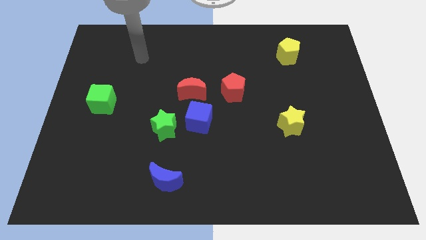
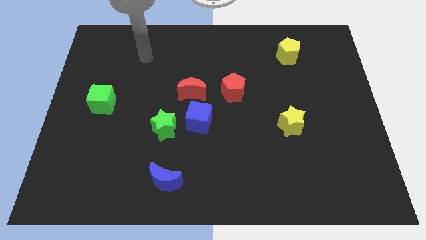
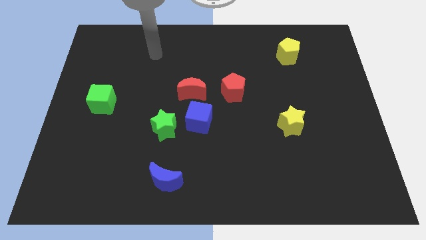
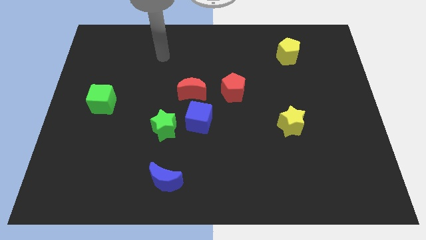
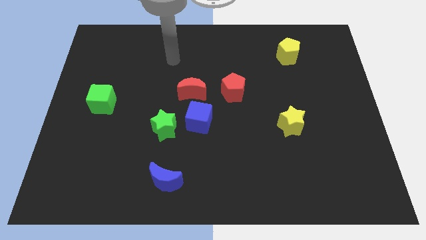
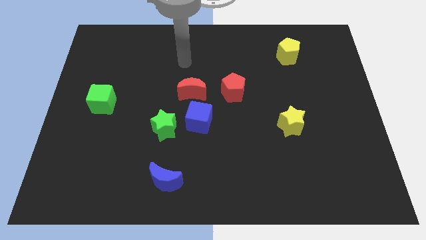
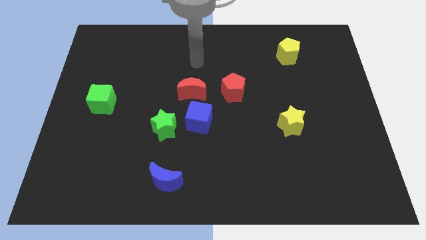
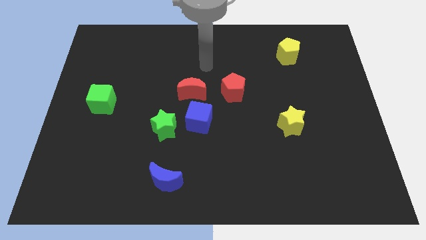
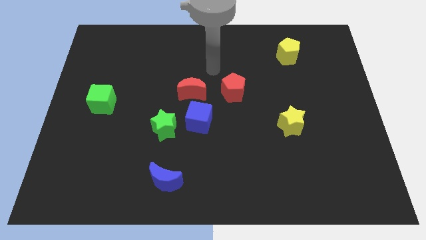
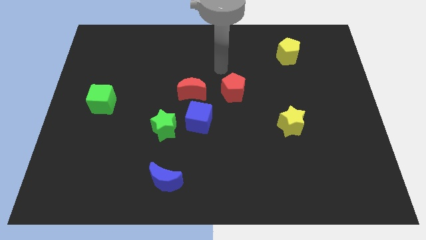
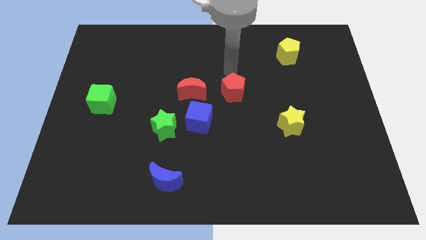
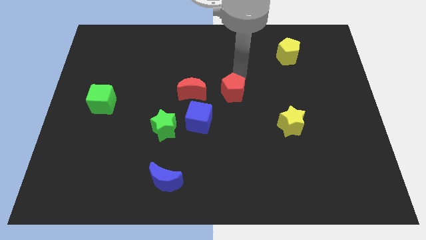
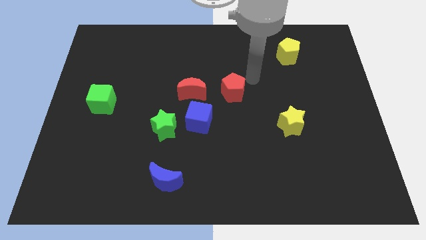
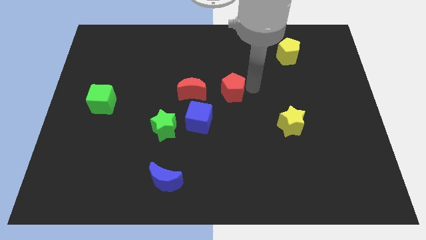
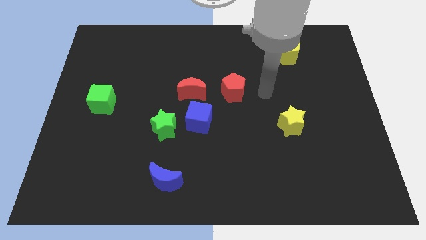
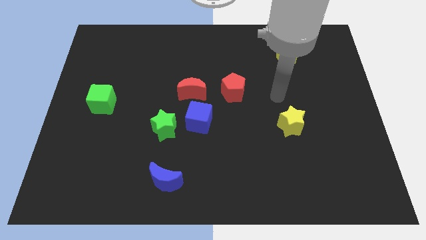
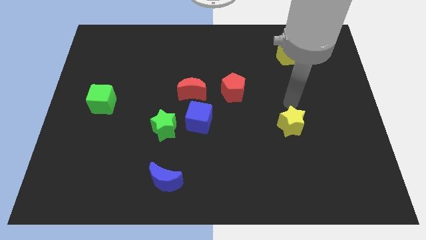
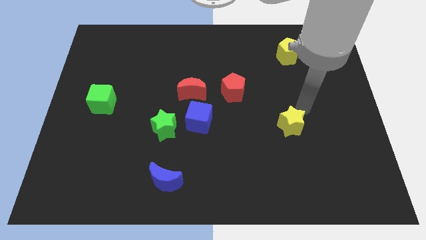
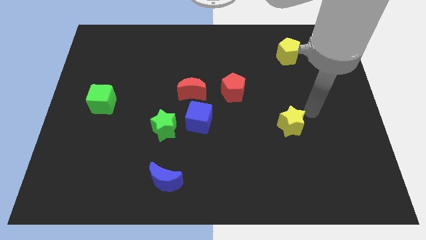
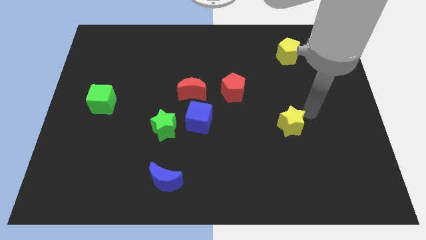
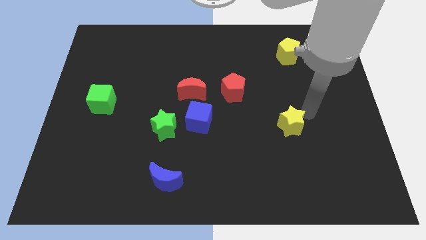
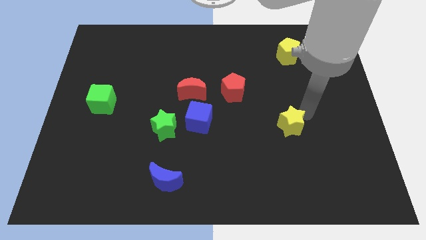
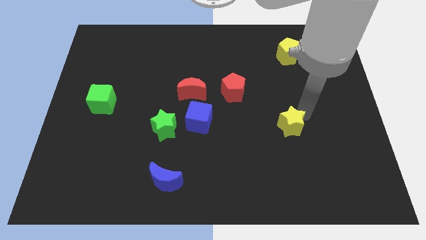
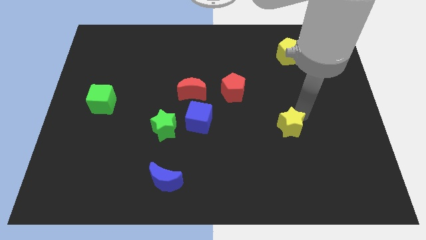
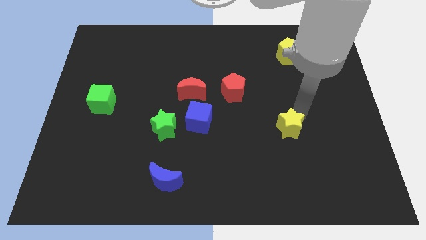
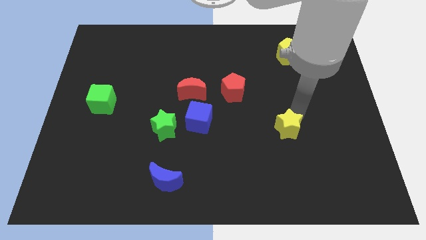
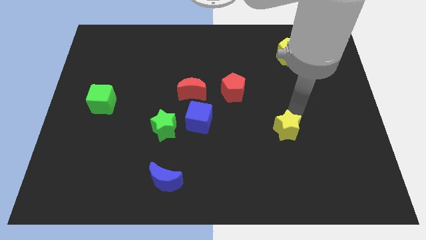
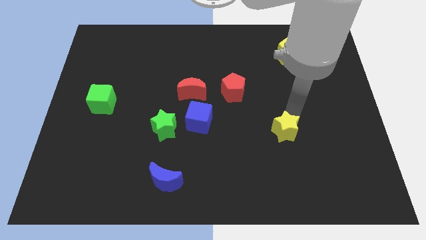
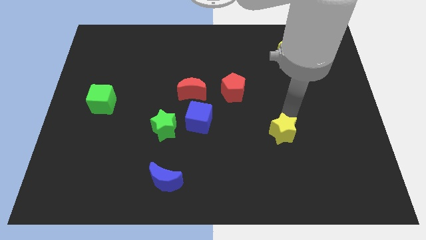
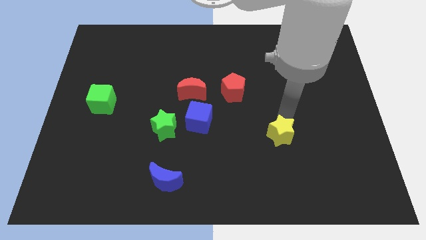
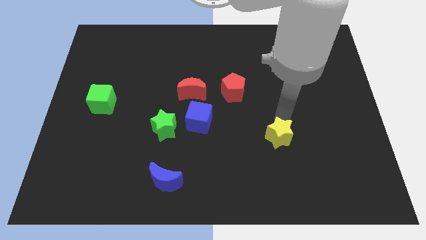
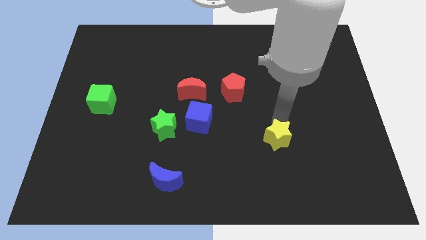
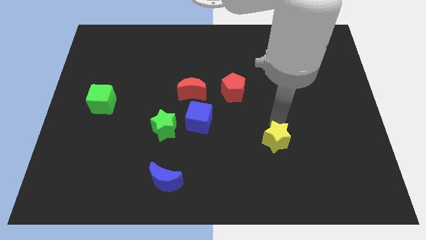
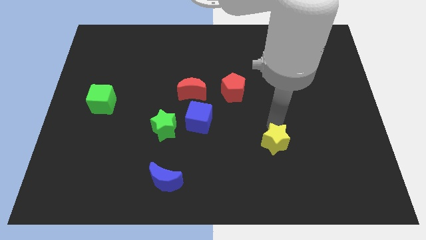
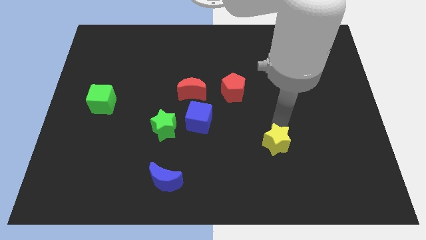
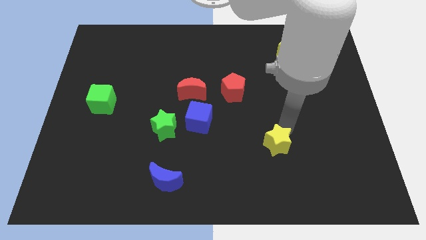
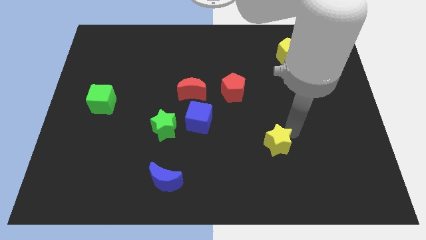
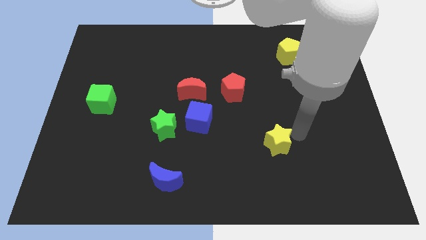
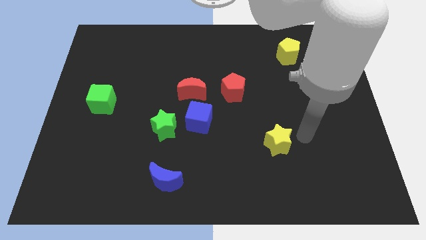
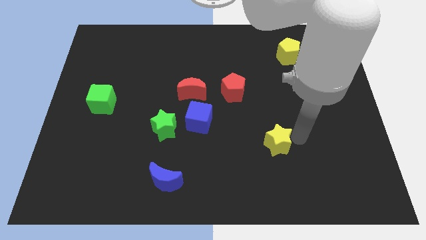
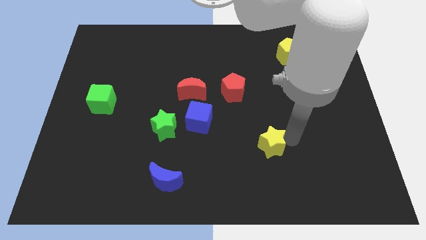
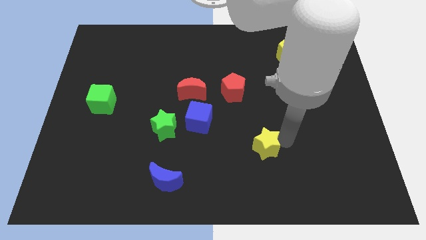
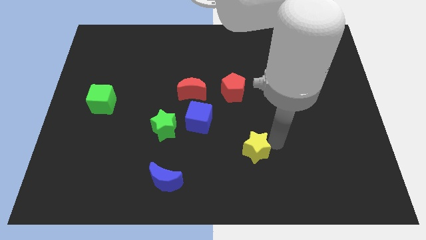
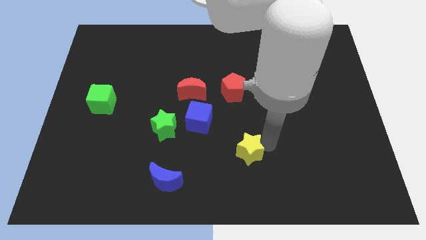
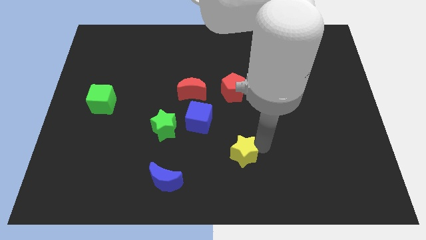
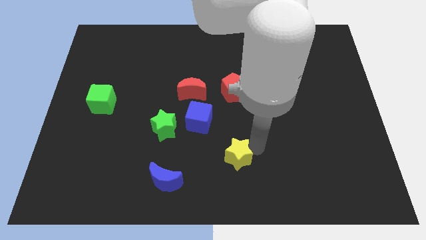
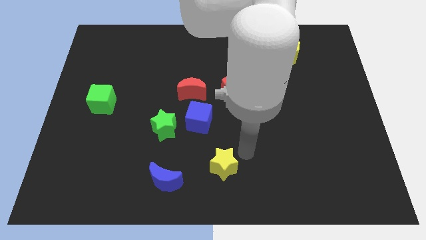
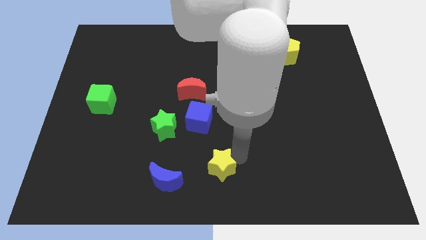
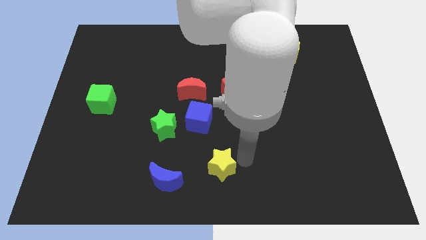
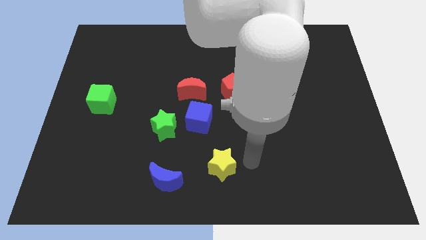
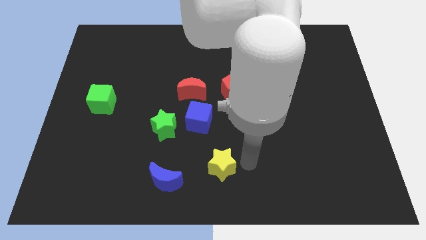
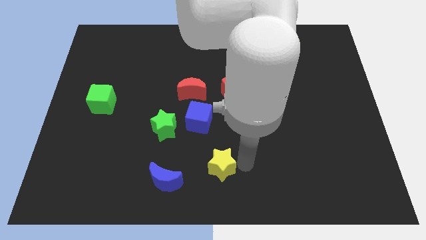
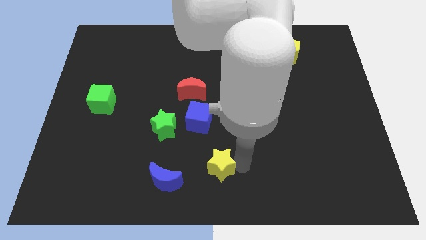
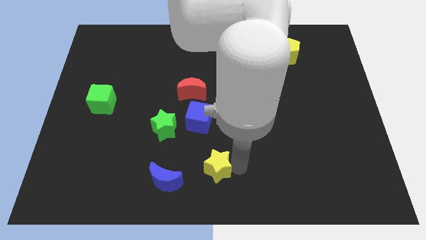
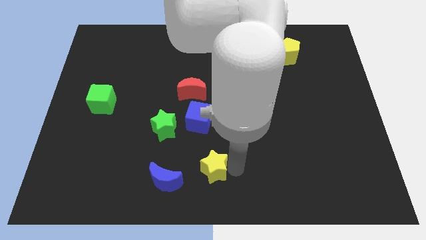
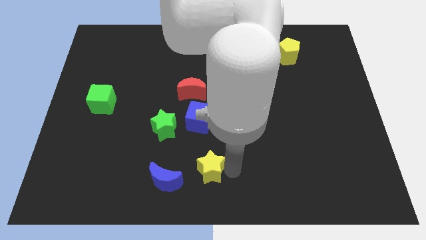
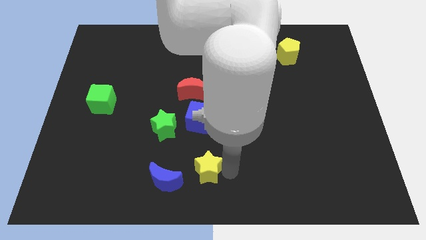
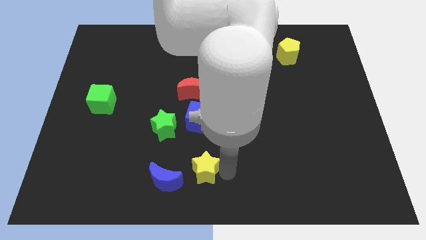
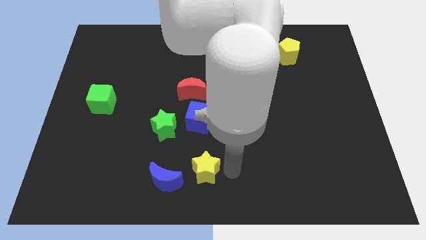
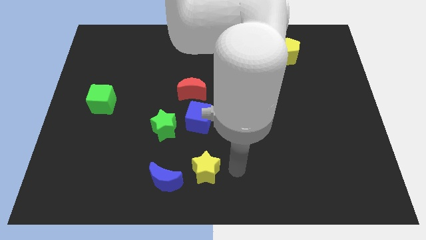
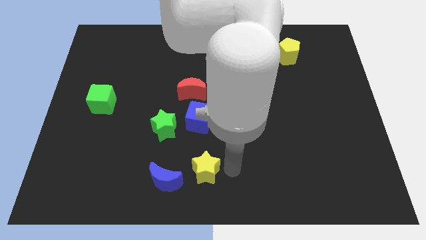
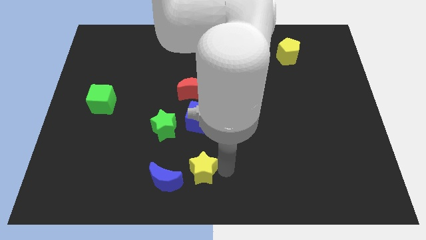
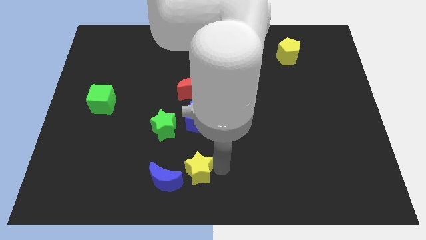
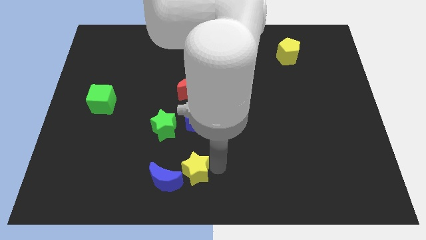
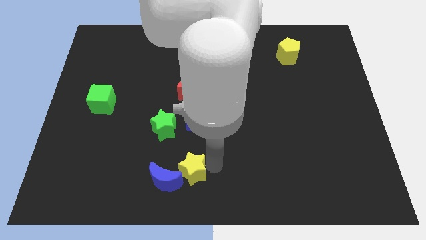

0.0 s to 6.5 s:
push the yellow star to the blue moon

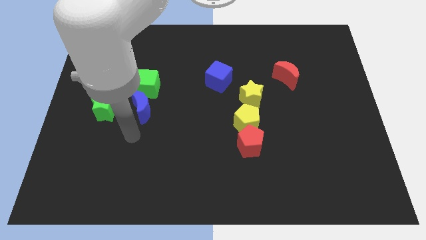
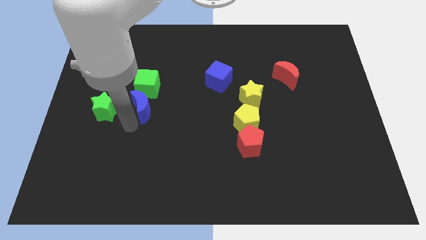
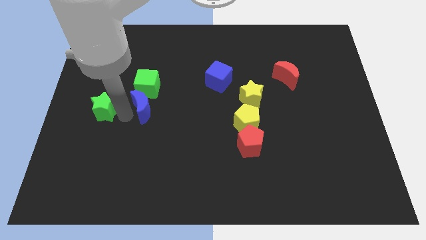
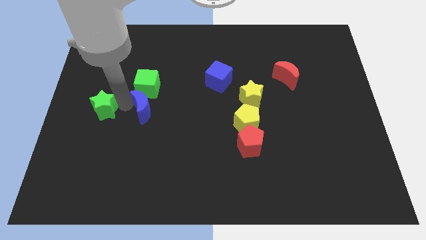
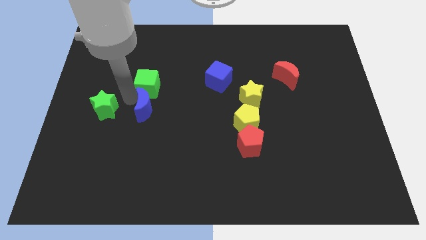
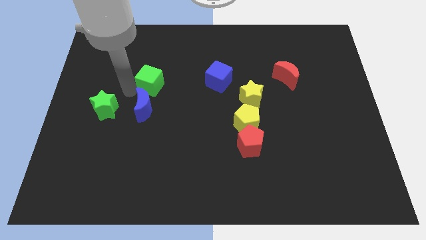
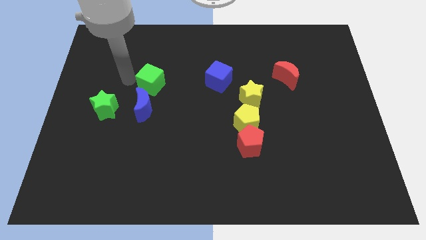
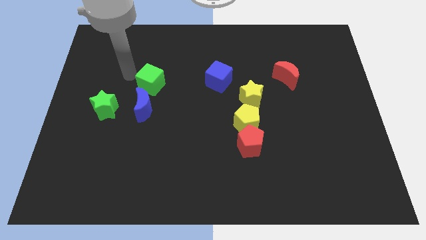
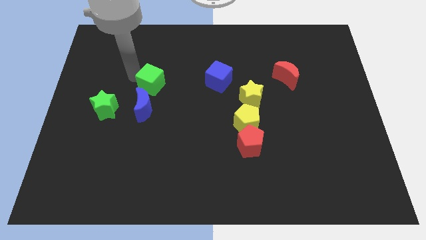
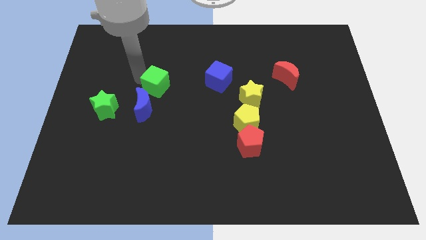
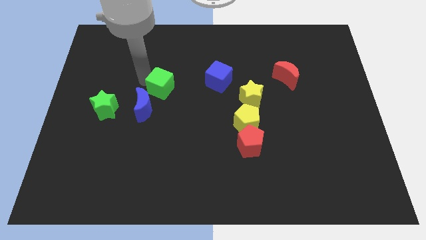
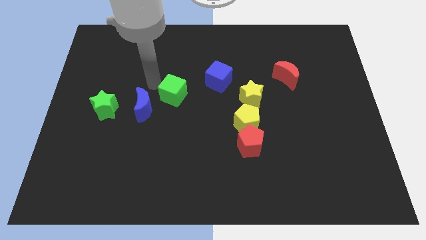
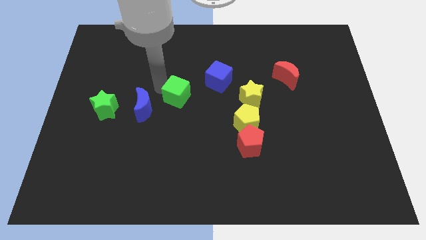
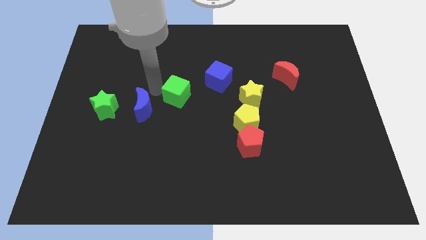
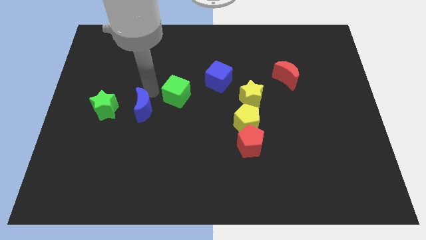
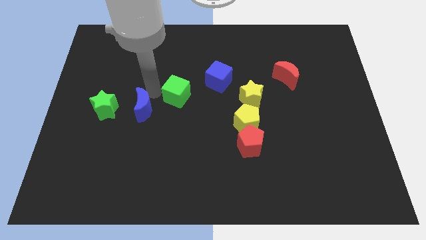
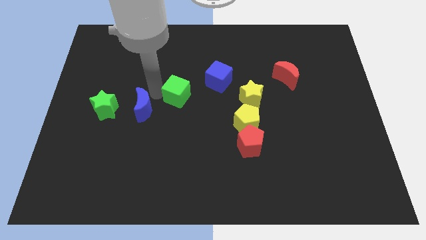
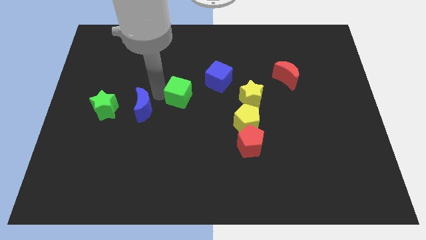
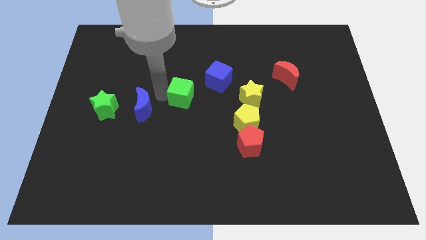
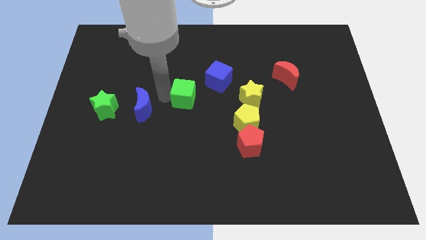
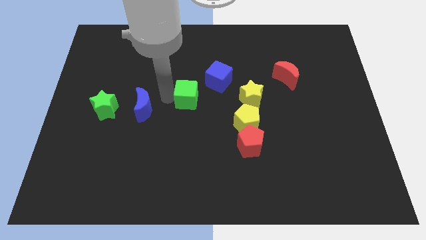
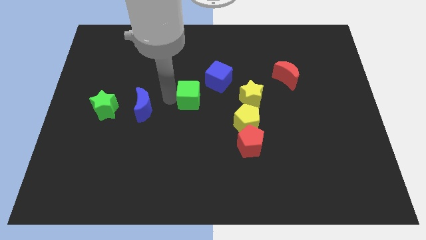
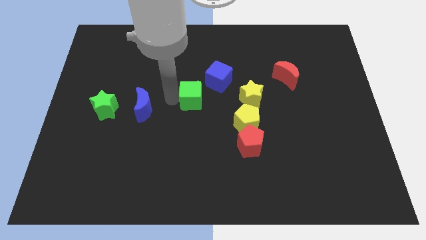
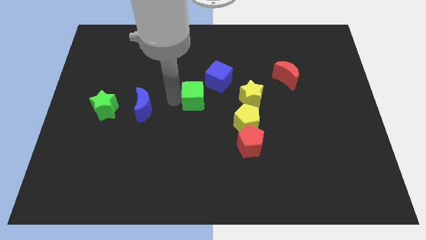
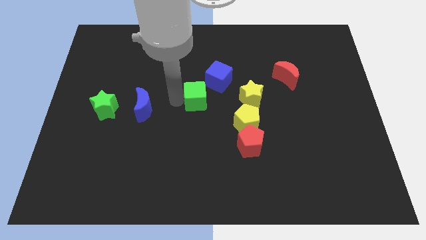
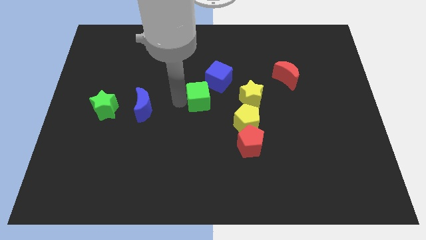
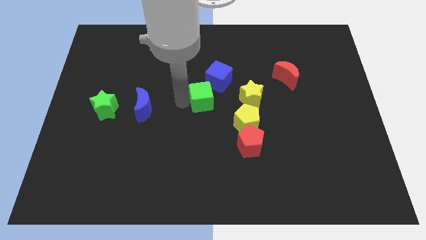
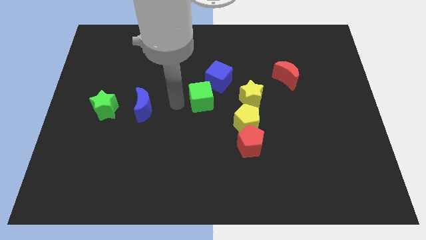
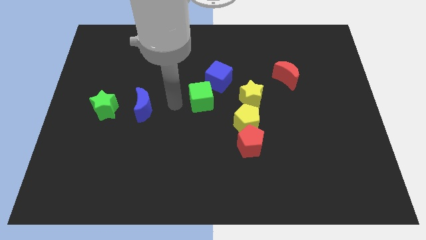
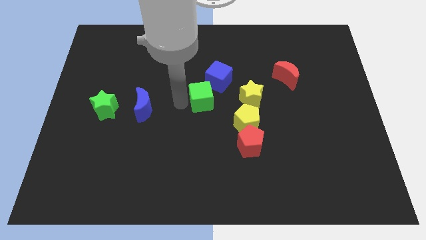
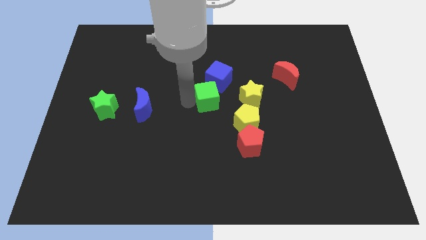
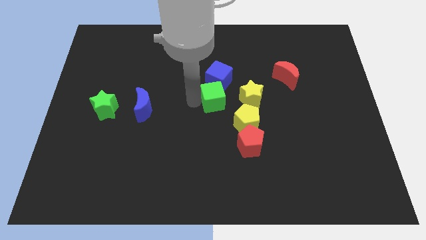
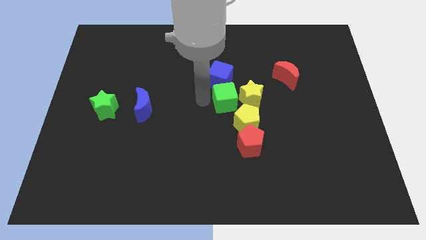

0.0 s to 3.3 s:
put the green cube to the yellow star
